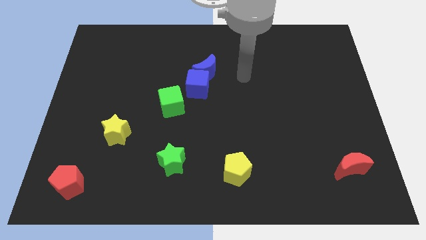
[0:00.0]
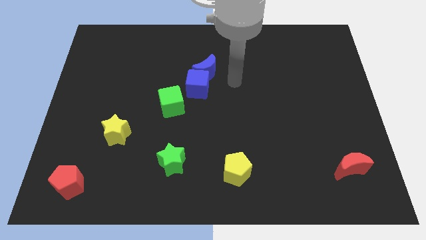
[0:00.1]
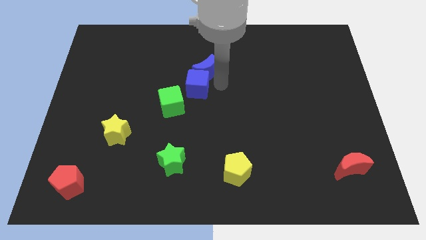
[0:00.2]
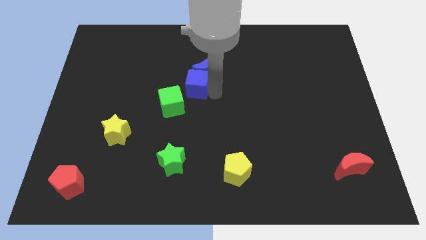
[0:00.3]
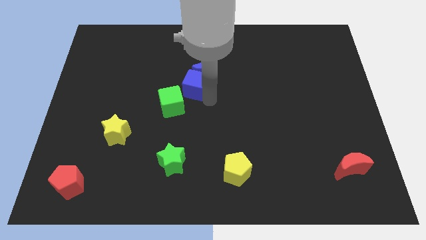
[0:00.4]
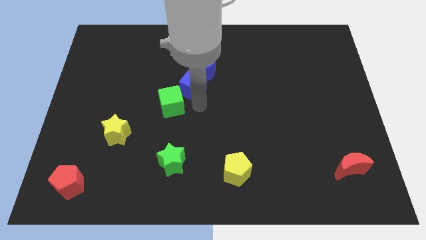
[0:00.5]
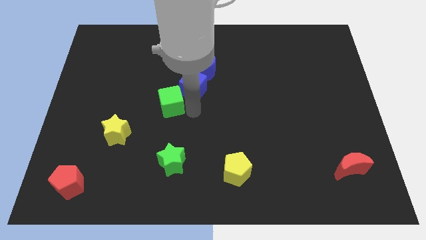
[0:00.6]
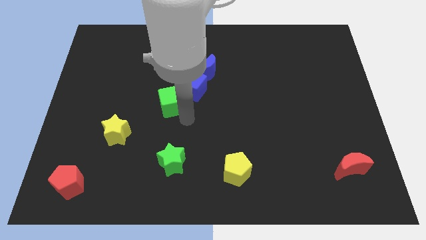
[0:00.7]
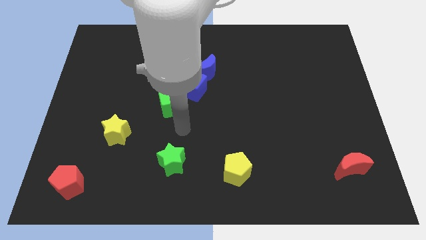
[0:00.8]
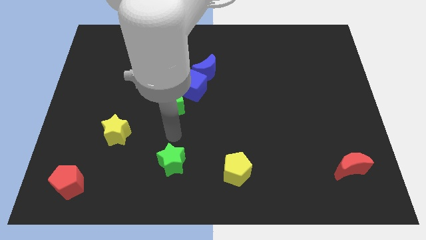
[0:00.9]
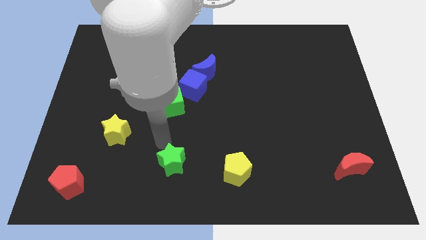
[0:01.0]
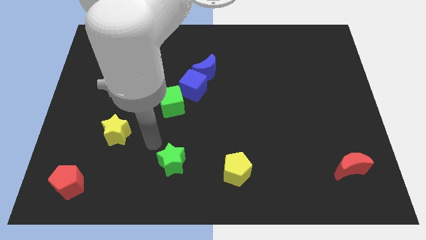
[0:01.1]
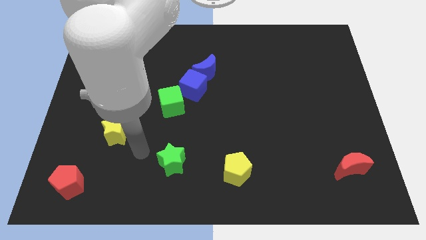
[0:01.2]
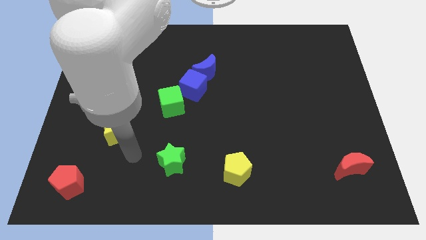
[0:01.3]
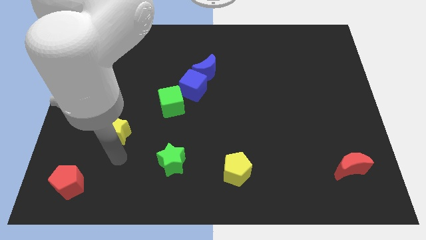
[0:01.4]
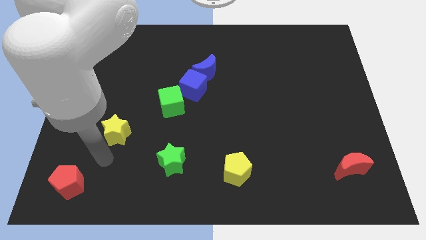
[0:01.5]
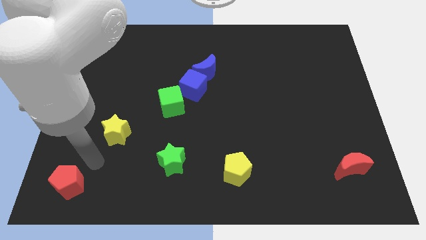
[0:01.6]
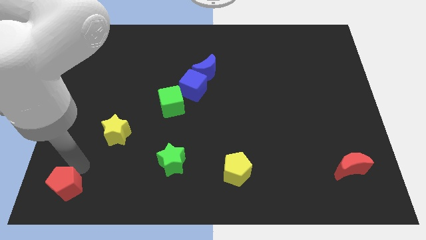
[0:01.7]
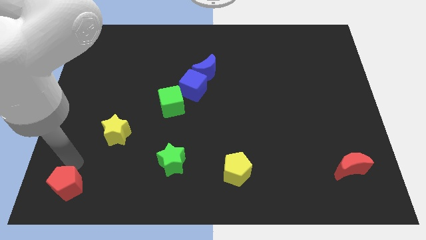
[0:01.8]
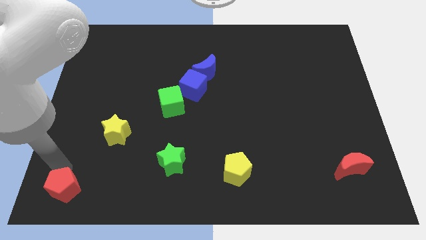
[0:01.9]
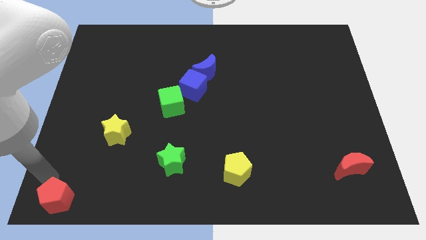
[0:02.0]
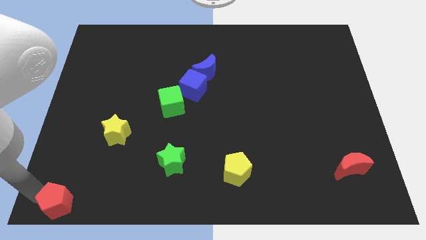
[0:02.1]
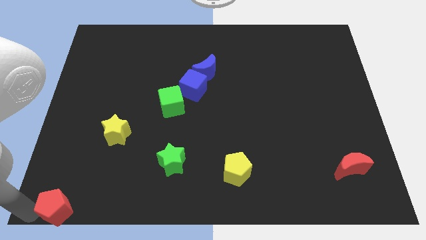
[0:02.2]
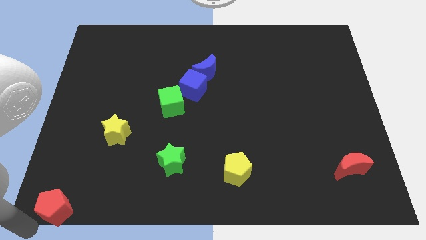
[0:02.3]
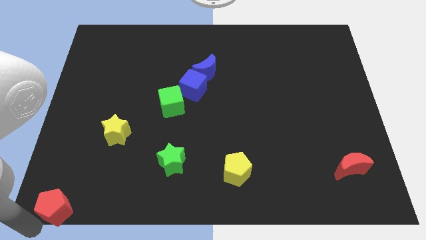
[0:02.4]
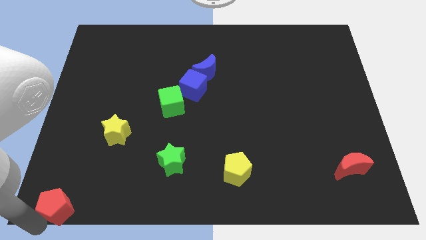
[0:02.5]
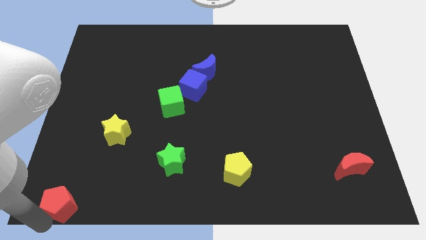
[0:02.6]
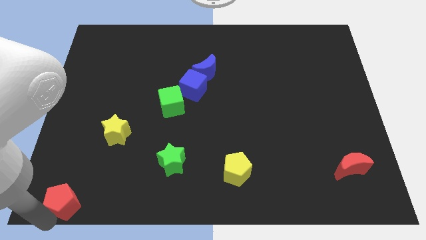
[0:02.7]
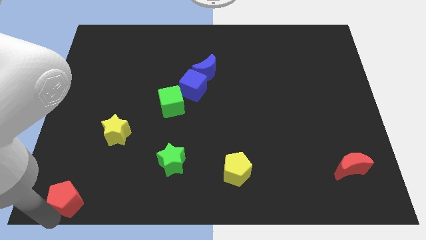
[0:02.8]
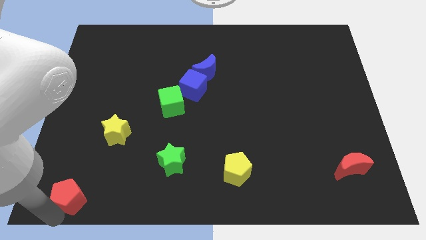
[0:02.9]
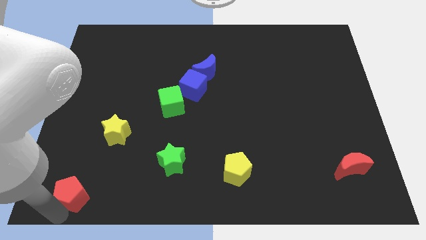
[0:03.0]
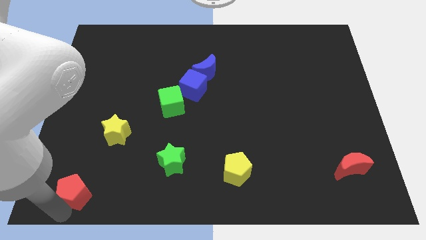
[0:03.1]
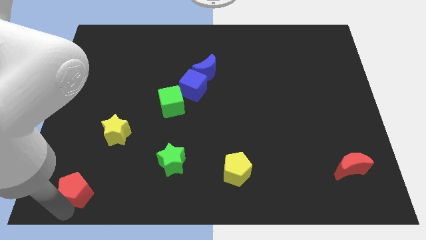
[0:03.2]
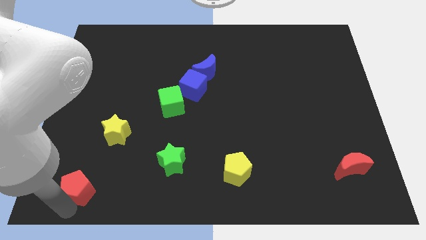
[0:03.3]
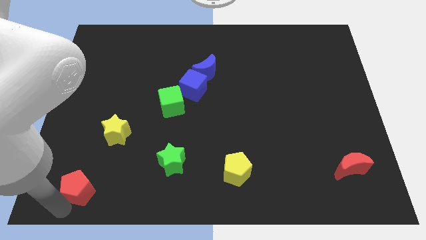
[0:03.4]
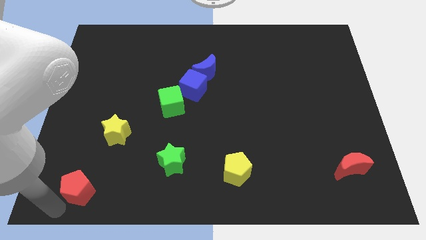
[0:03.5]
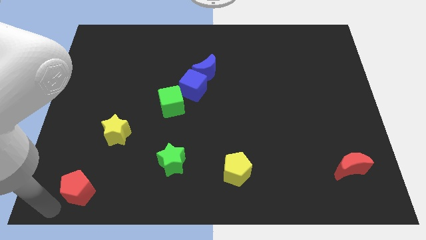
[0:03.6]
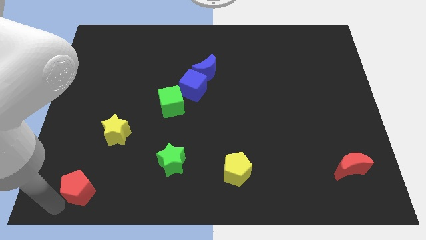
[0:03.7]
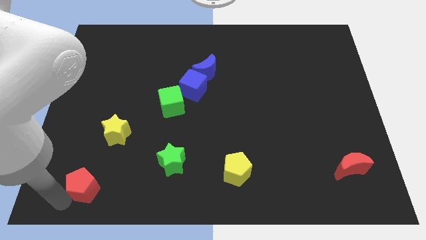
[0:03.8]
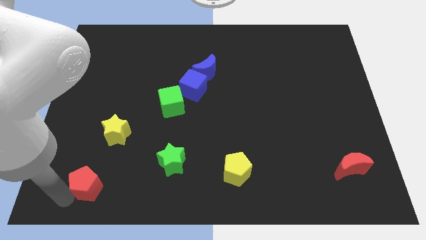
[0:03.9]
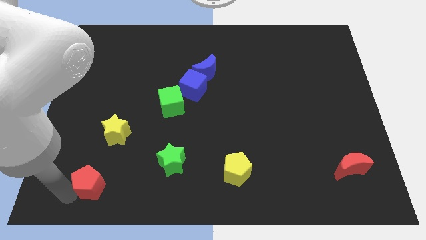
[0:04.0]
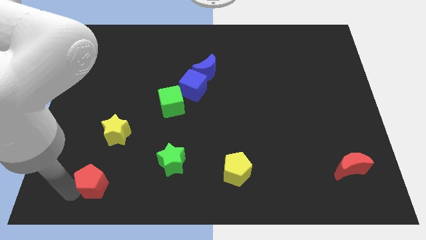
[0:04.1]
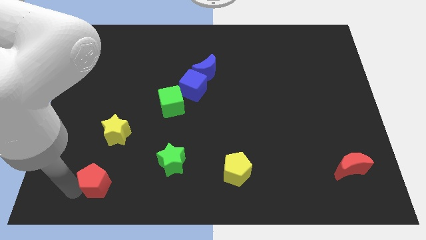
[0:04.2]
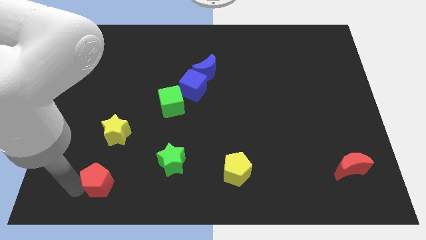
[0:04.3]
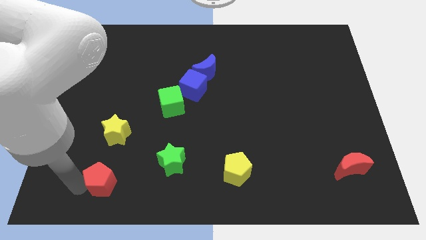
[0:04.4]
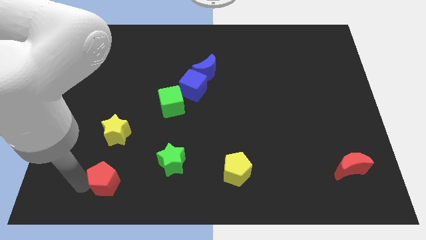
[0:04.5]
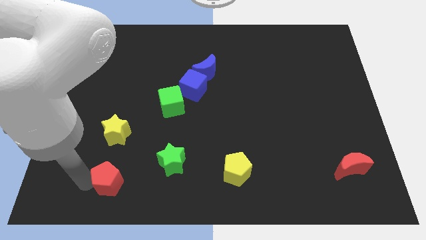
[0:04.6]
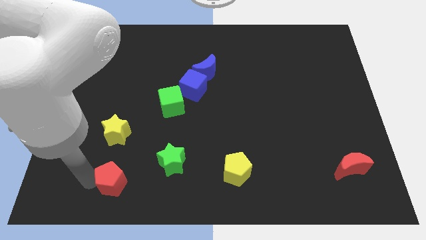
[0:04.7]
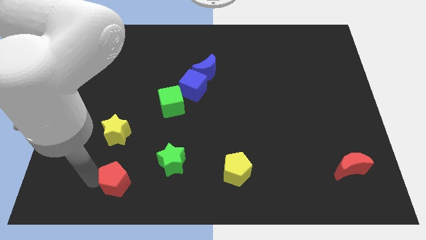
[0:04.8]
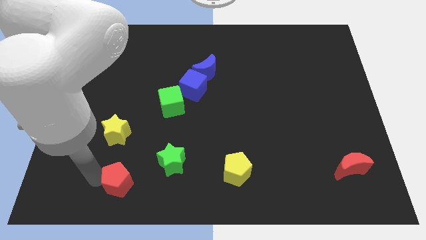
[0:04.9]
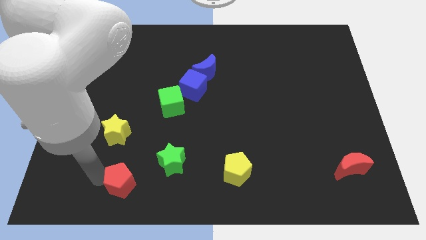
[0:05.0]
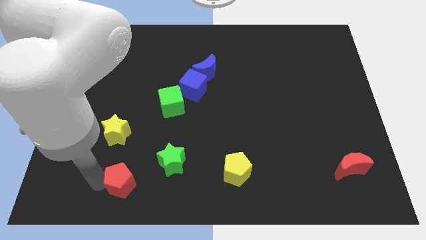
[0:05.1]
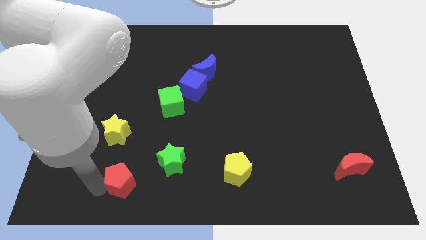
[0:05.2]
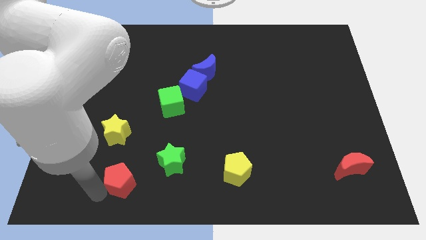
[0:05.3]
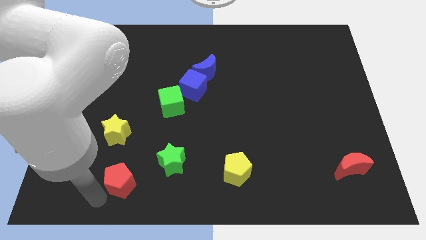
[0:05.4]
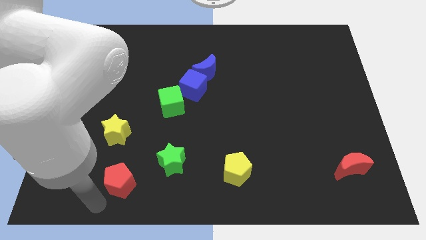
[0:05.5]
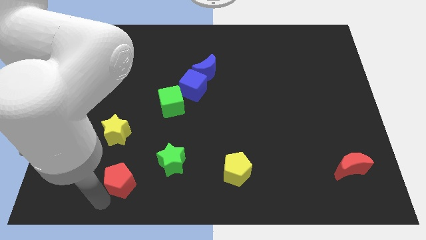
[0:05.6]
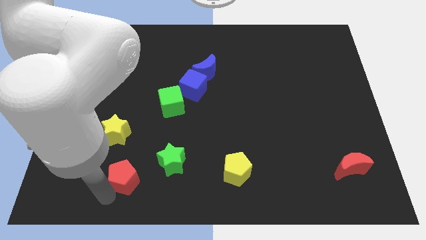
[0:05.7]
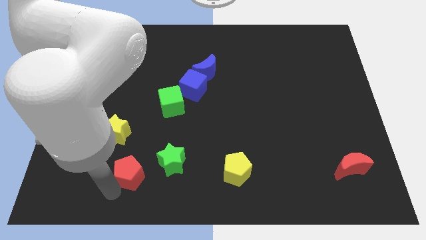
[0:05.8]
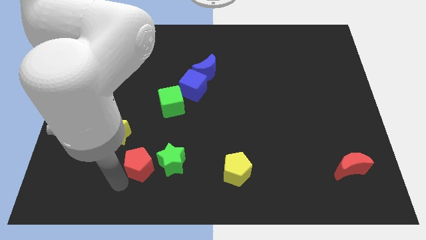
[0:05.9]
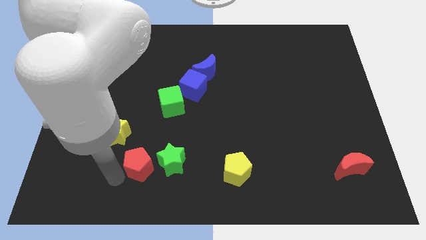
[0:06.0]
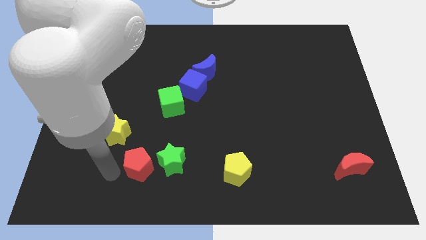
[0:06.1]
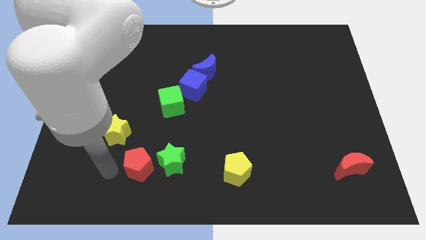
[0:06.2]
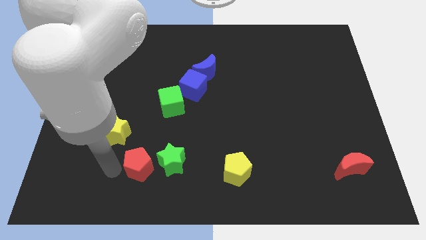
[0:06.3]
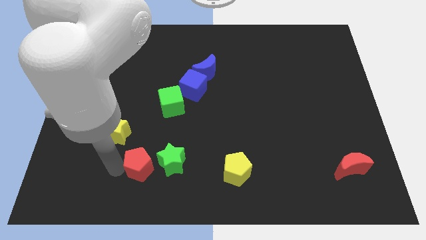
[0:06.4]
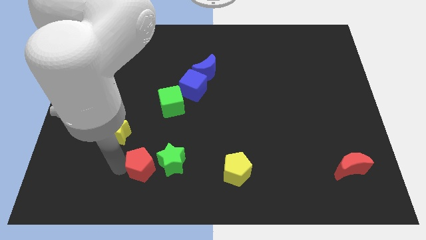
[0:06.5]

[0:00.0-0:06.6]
move the red pentagon to the green star
